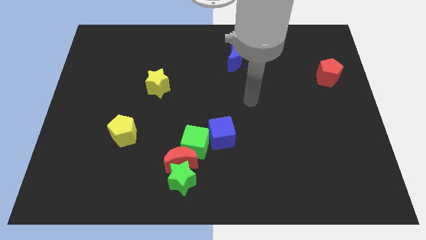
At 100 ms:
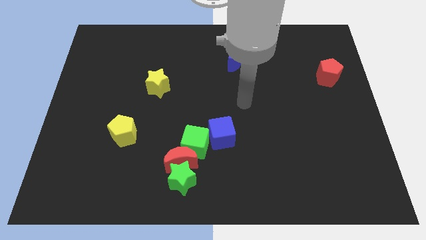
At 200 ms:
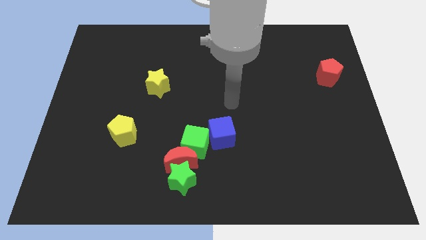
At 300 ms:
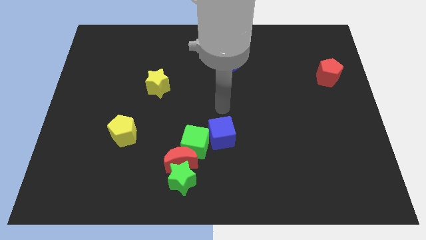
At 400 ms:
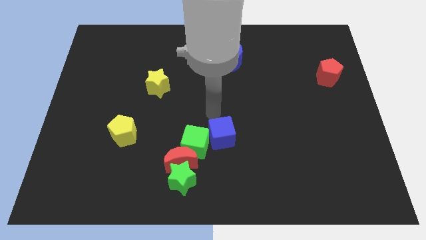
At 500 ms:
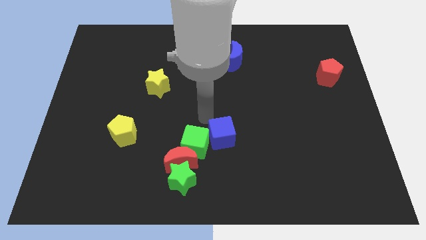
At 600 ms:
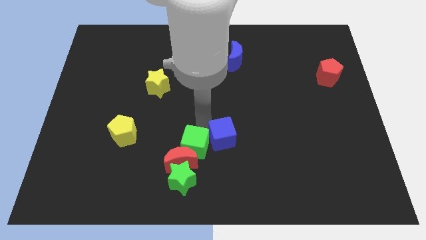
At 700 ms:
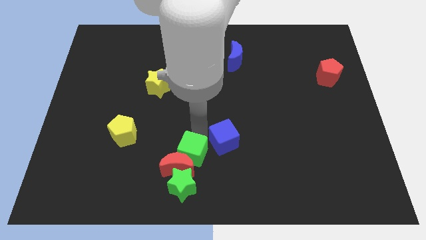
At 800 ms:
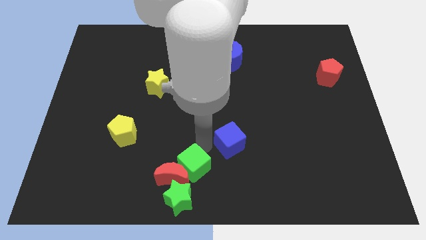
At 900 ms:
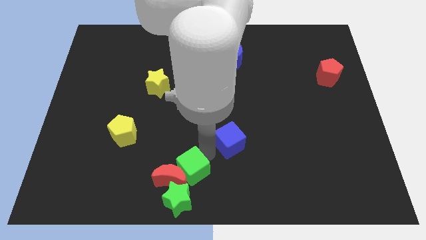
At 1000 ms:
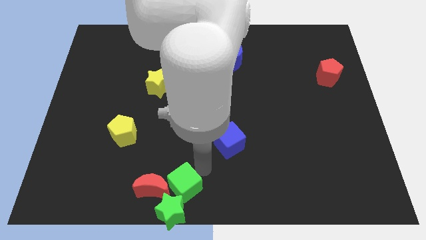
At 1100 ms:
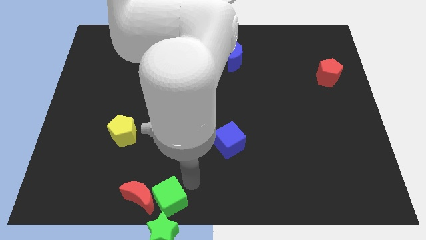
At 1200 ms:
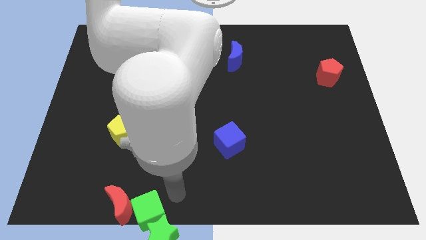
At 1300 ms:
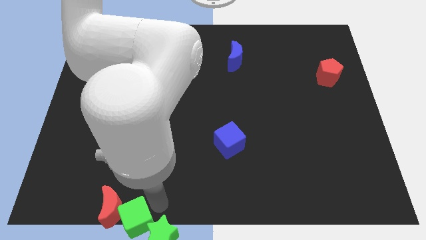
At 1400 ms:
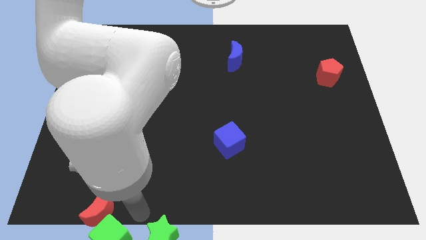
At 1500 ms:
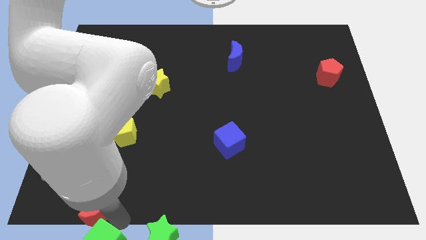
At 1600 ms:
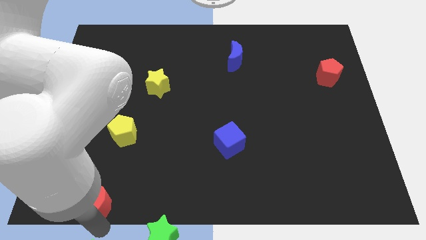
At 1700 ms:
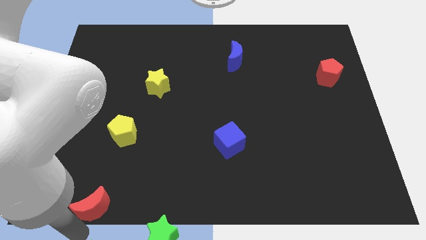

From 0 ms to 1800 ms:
move the red moon away from the green star and green cube

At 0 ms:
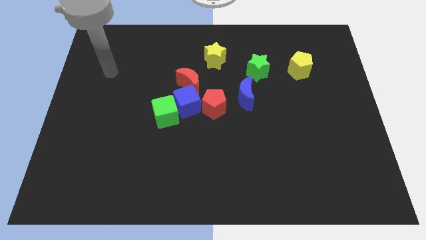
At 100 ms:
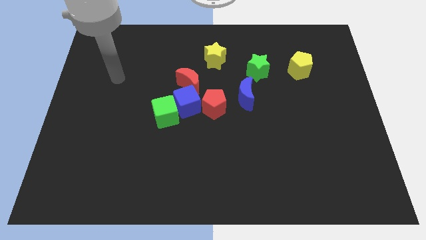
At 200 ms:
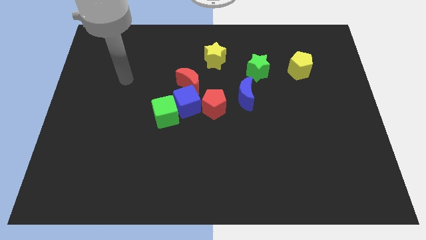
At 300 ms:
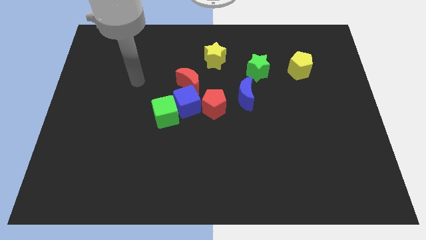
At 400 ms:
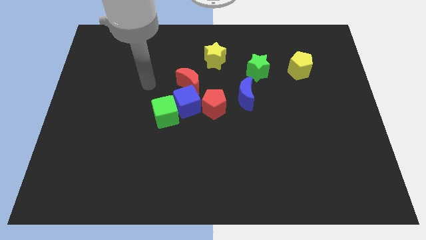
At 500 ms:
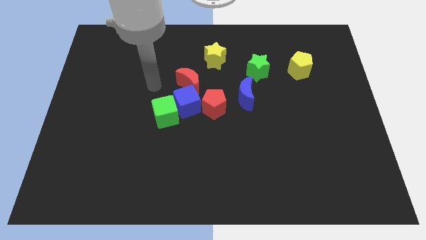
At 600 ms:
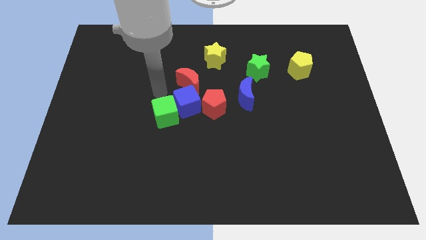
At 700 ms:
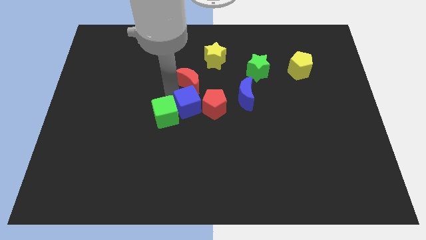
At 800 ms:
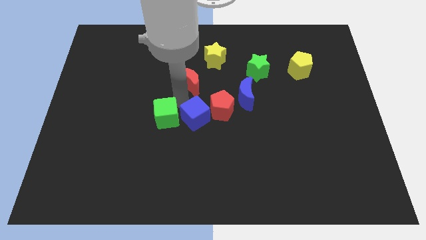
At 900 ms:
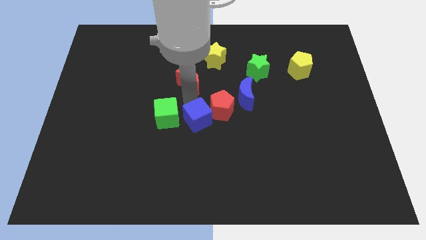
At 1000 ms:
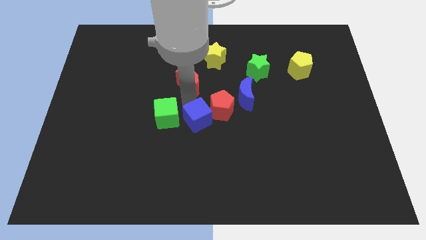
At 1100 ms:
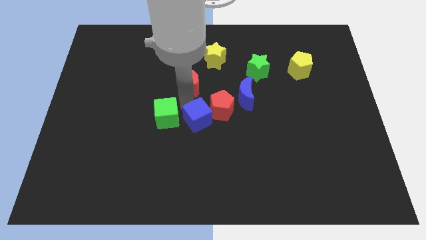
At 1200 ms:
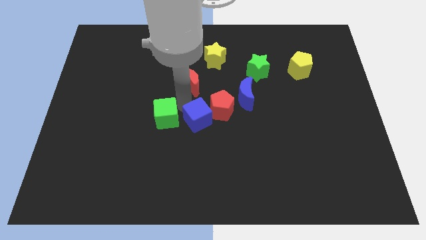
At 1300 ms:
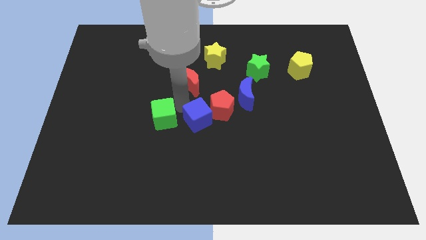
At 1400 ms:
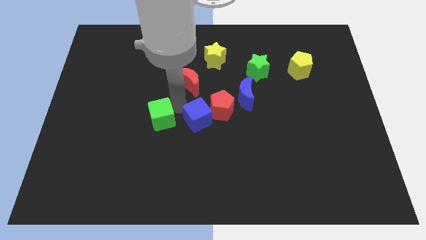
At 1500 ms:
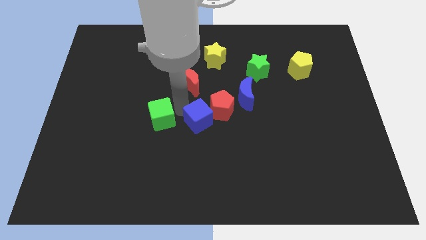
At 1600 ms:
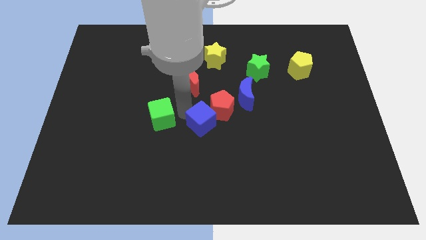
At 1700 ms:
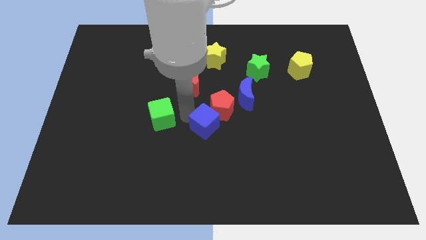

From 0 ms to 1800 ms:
separate the green cube from the blue cube

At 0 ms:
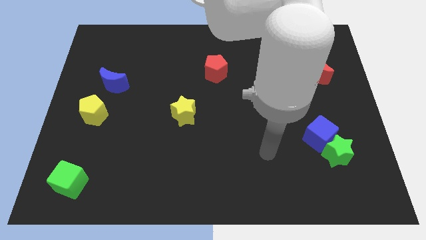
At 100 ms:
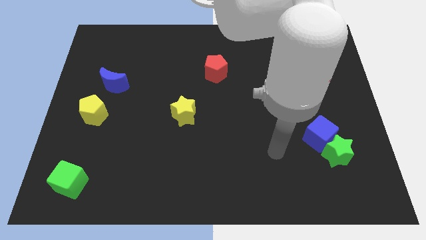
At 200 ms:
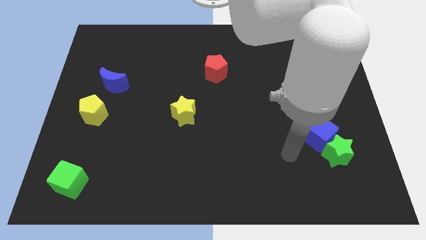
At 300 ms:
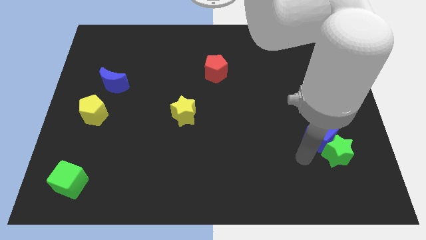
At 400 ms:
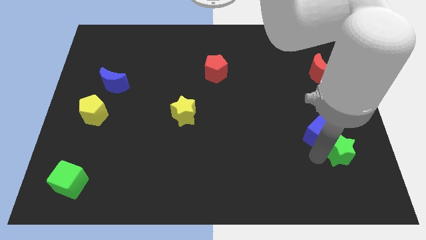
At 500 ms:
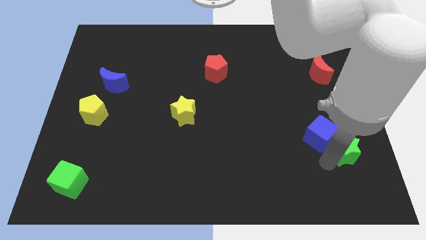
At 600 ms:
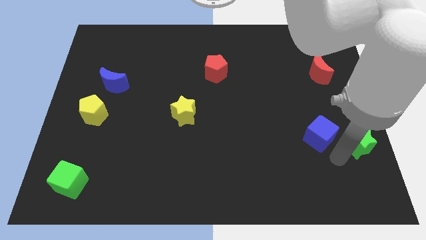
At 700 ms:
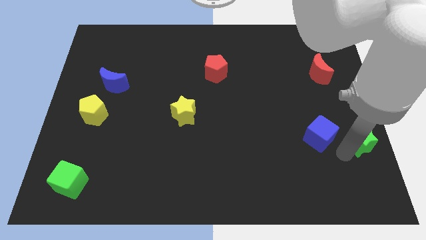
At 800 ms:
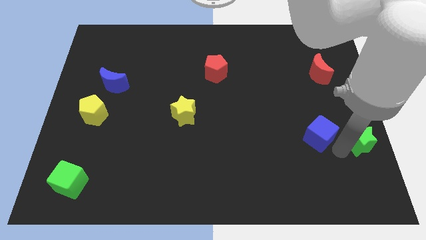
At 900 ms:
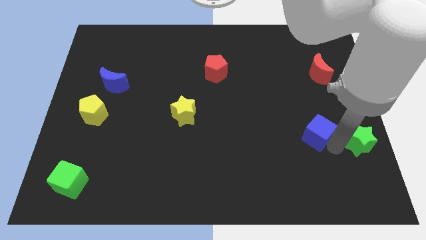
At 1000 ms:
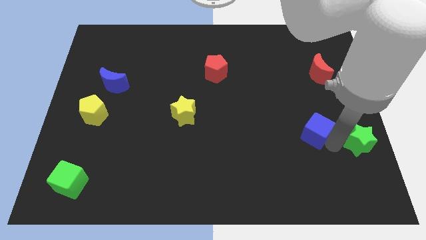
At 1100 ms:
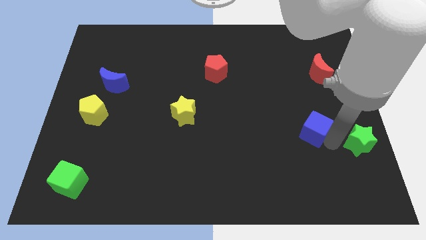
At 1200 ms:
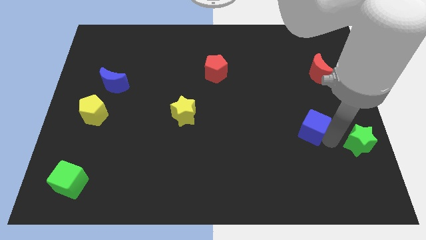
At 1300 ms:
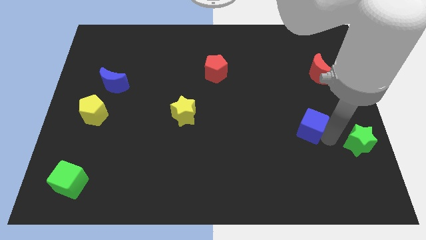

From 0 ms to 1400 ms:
move the blue cube away from the green star

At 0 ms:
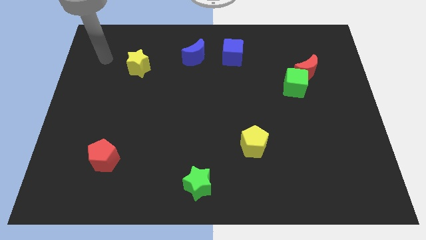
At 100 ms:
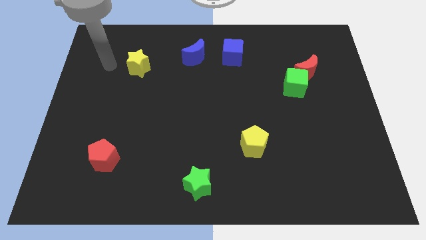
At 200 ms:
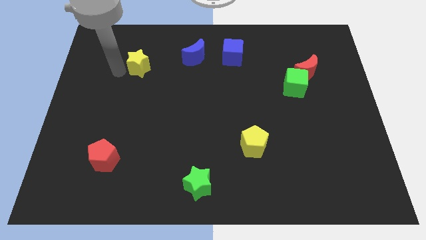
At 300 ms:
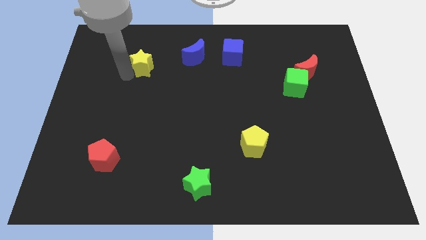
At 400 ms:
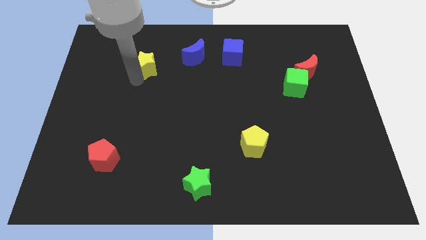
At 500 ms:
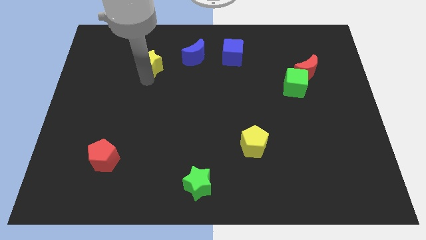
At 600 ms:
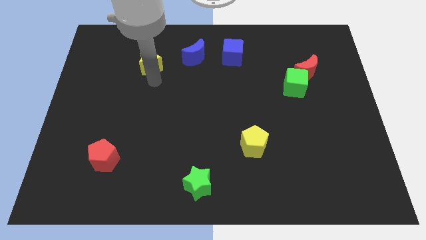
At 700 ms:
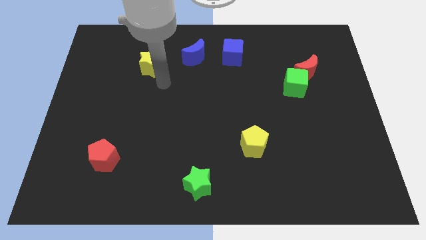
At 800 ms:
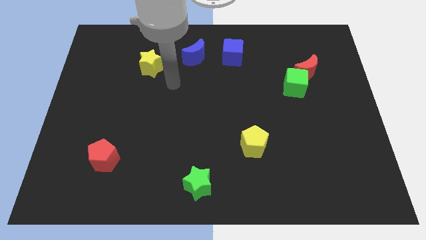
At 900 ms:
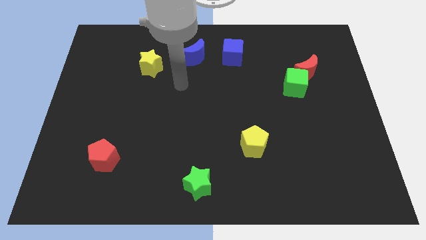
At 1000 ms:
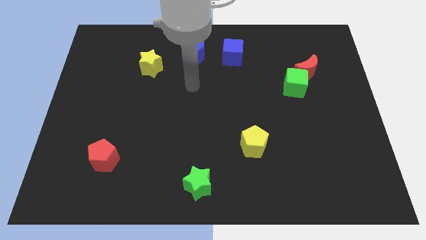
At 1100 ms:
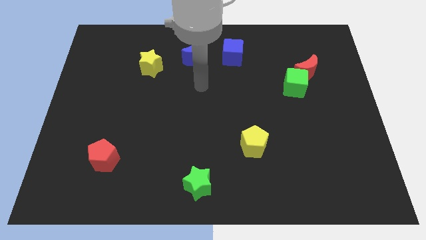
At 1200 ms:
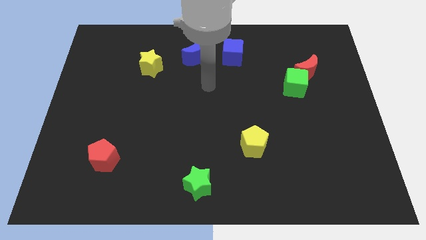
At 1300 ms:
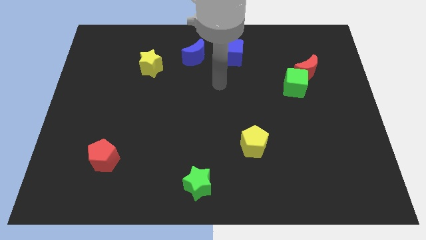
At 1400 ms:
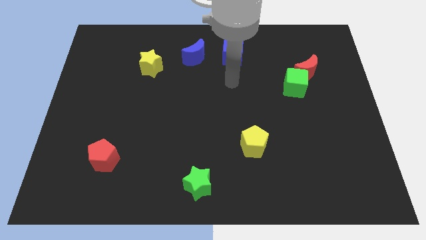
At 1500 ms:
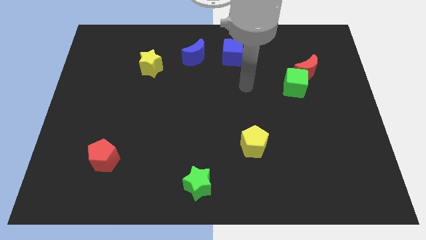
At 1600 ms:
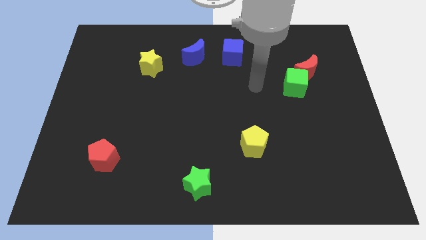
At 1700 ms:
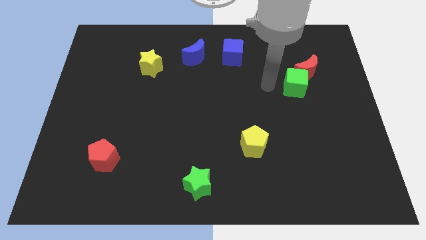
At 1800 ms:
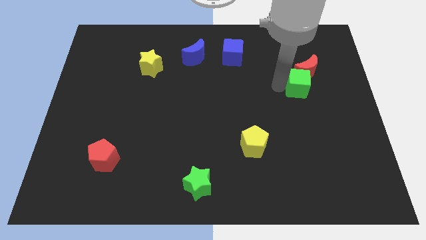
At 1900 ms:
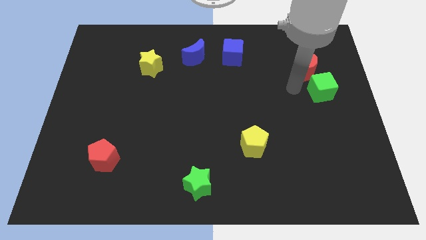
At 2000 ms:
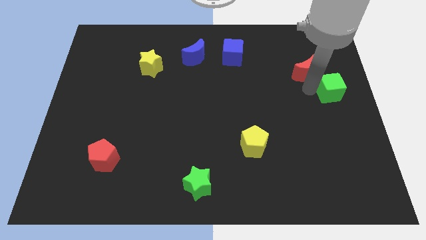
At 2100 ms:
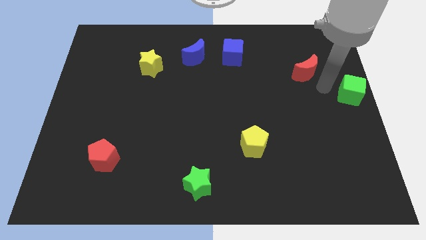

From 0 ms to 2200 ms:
pull the red moon apart from the green cube

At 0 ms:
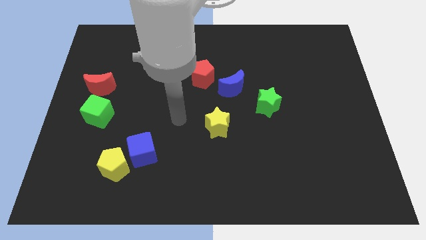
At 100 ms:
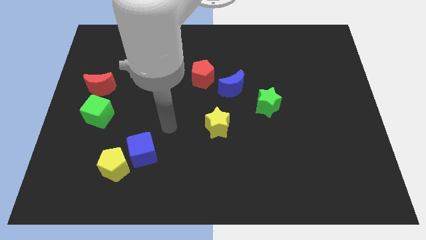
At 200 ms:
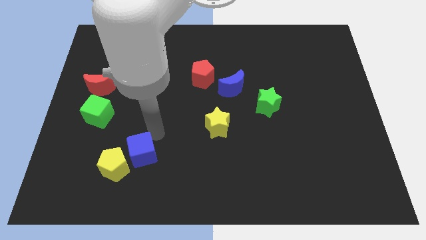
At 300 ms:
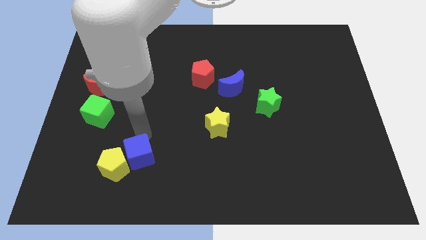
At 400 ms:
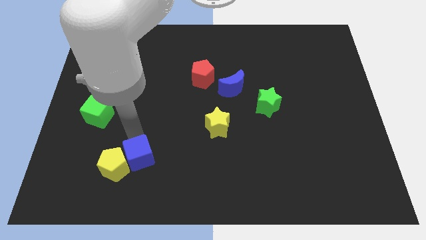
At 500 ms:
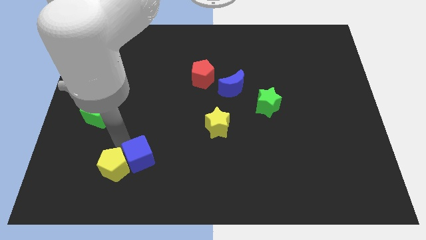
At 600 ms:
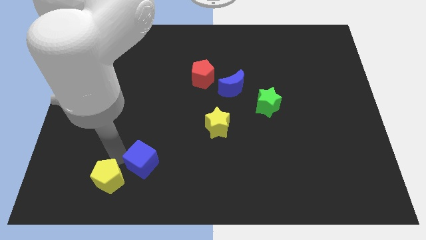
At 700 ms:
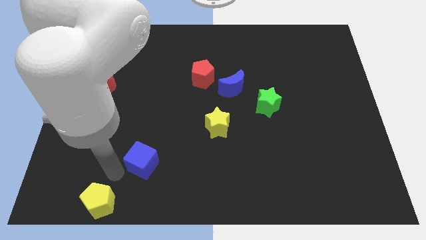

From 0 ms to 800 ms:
move the blue cube away from the yellow pentagon

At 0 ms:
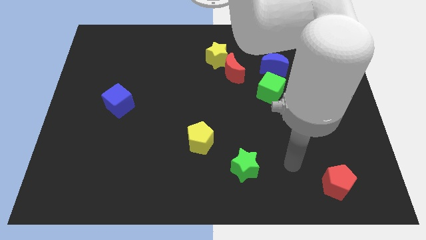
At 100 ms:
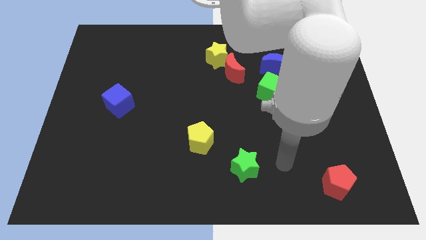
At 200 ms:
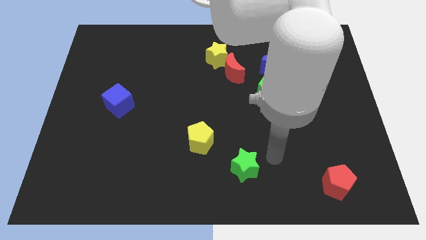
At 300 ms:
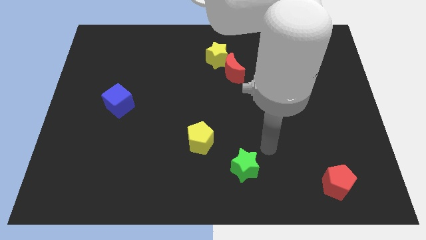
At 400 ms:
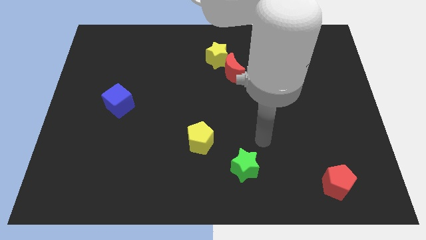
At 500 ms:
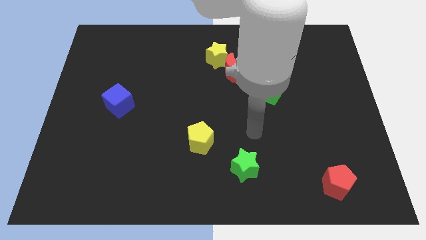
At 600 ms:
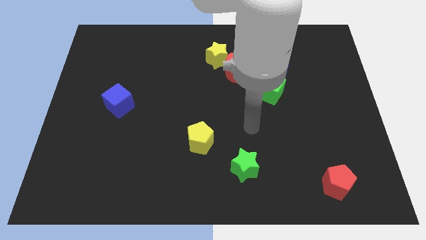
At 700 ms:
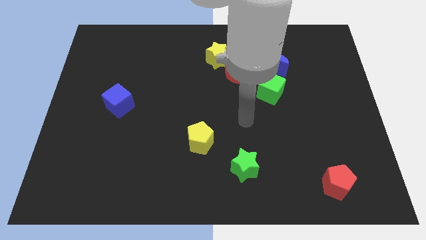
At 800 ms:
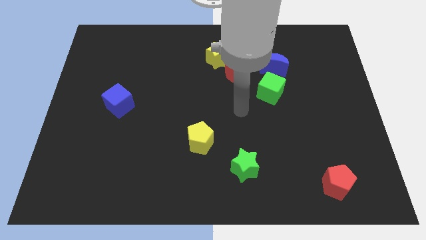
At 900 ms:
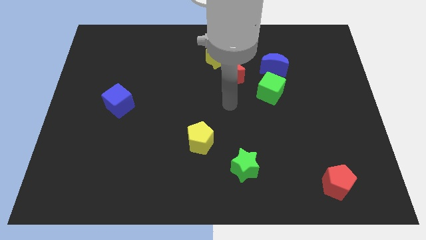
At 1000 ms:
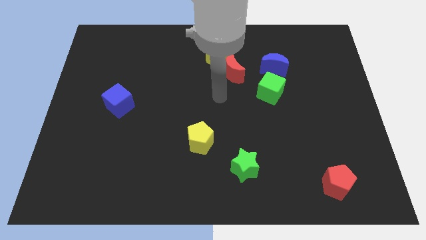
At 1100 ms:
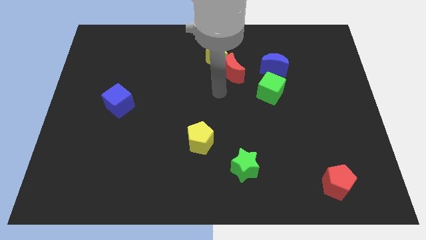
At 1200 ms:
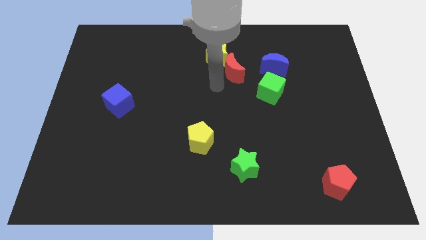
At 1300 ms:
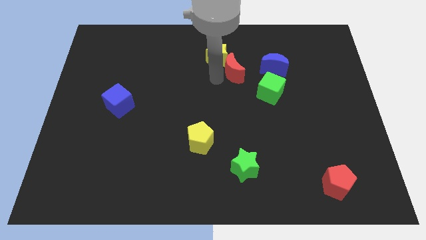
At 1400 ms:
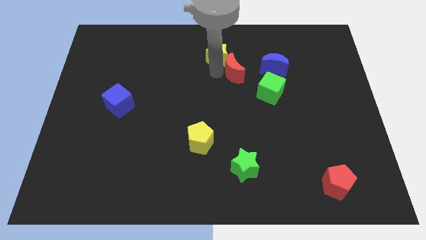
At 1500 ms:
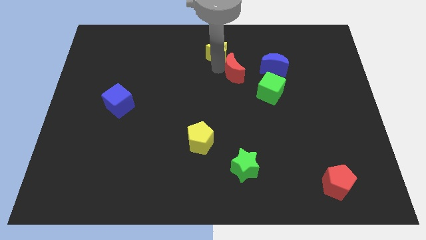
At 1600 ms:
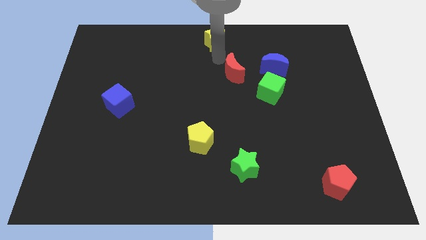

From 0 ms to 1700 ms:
separate the red moon from the yellow star
